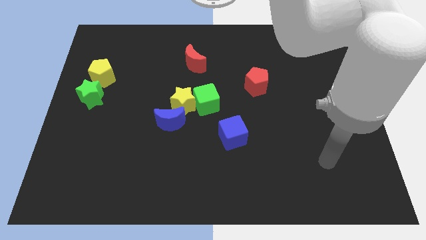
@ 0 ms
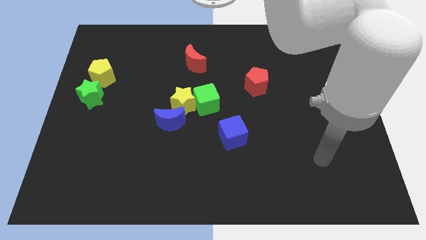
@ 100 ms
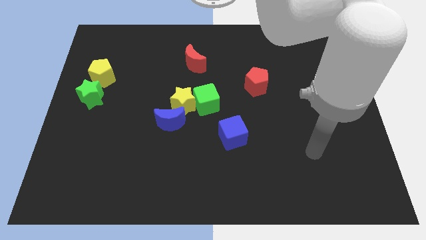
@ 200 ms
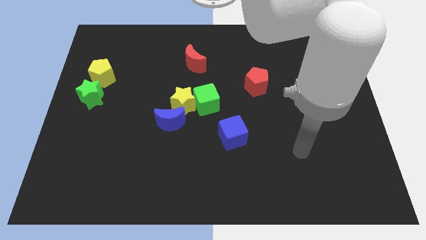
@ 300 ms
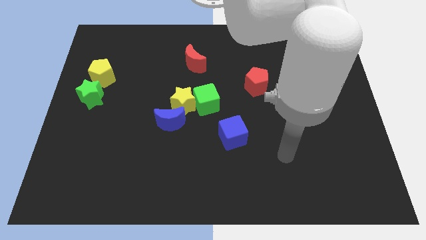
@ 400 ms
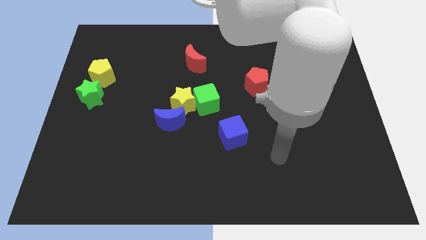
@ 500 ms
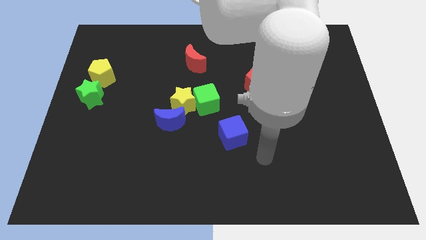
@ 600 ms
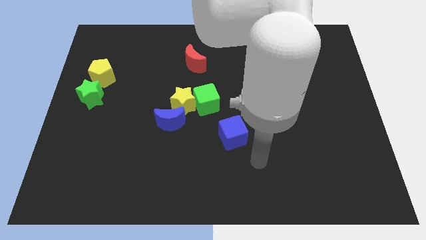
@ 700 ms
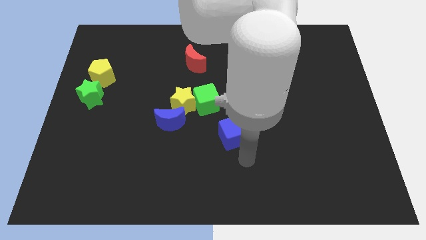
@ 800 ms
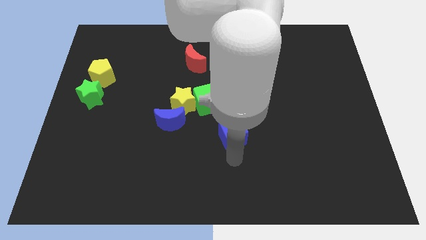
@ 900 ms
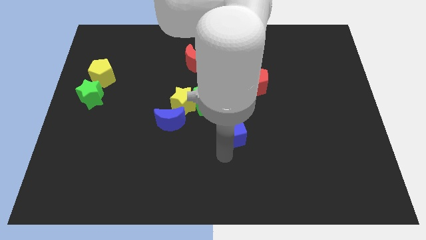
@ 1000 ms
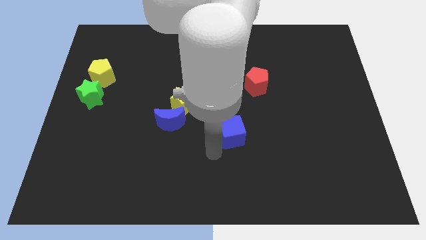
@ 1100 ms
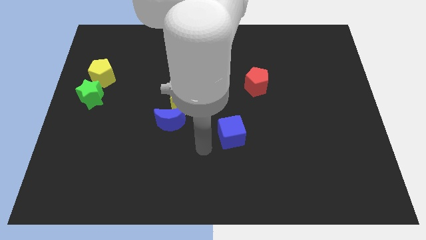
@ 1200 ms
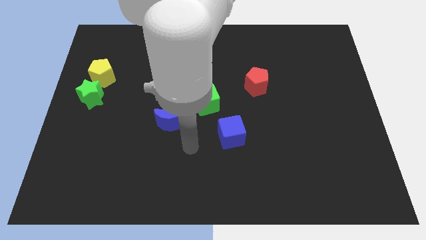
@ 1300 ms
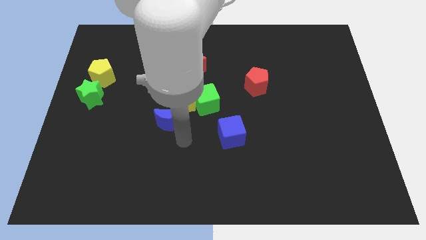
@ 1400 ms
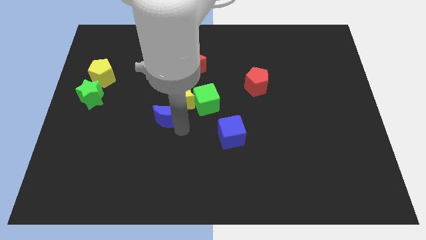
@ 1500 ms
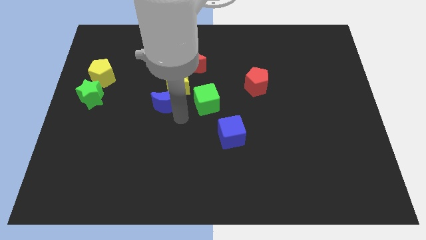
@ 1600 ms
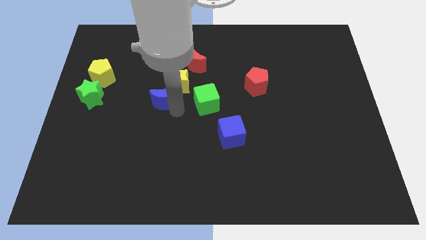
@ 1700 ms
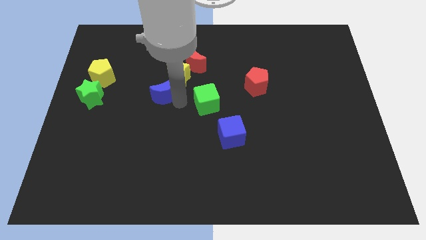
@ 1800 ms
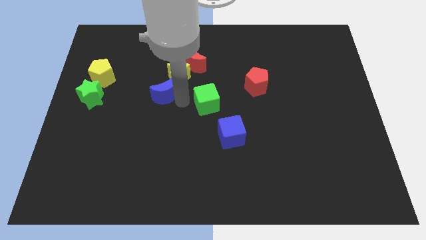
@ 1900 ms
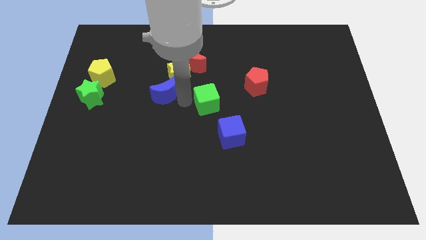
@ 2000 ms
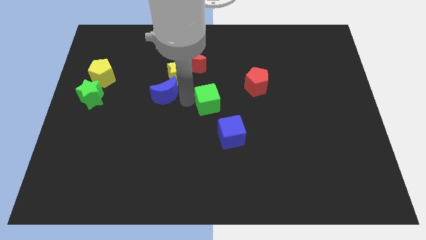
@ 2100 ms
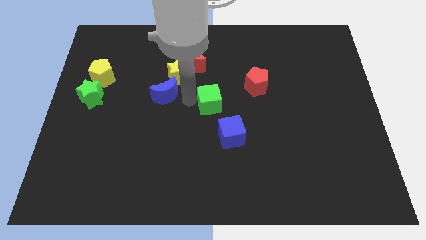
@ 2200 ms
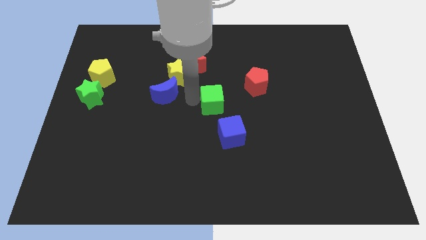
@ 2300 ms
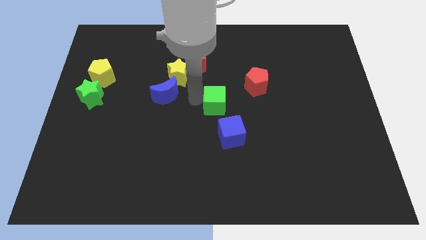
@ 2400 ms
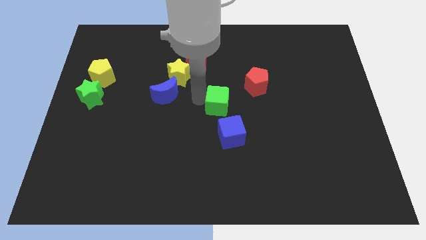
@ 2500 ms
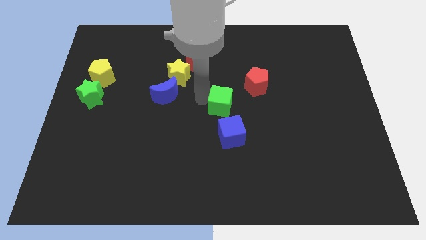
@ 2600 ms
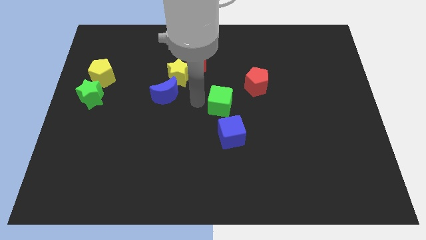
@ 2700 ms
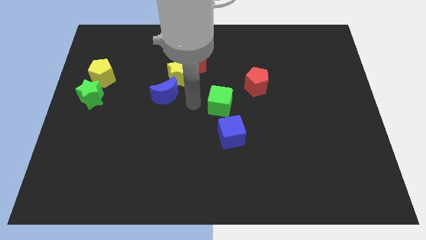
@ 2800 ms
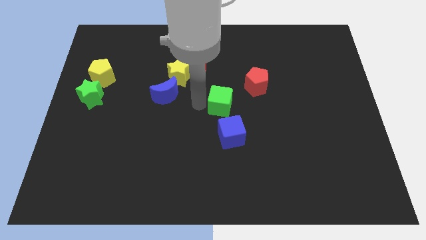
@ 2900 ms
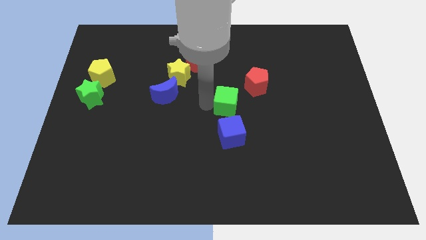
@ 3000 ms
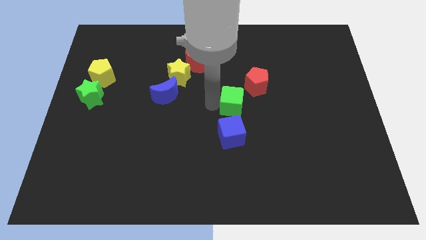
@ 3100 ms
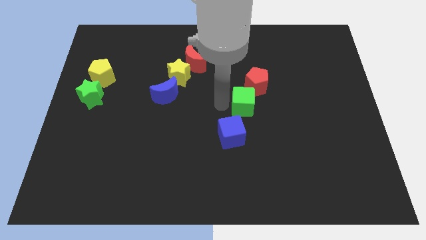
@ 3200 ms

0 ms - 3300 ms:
slide the green cube a bit to the right

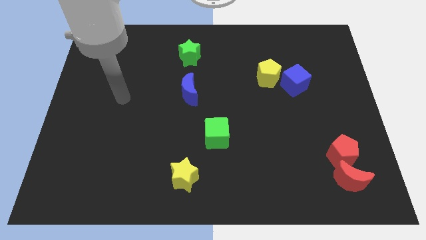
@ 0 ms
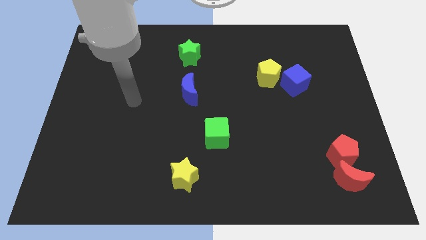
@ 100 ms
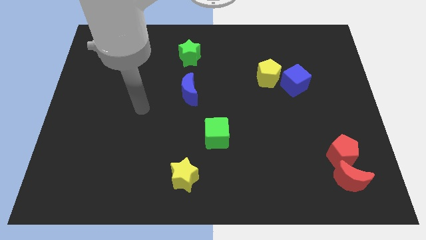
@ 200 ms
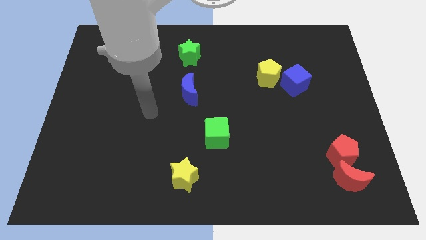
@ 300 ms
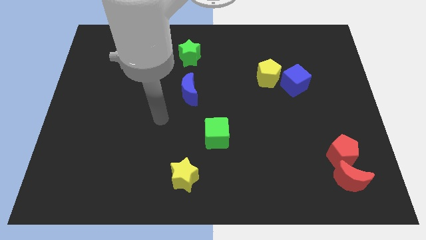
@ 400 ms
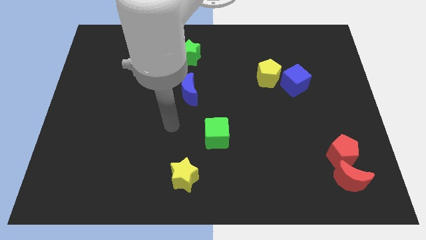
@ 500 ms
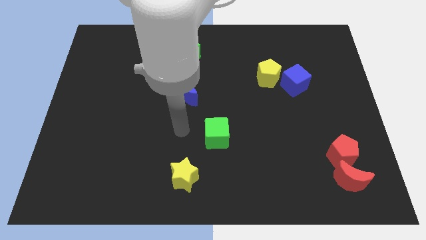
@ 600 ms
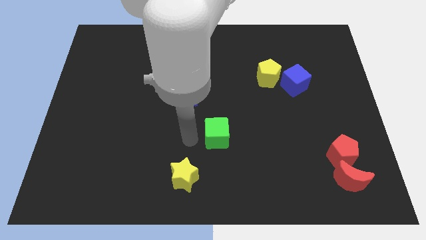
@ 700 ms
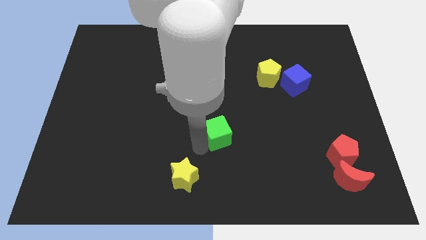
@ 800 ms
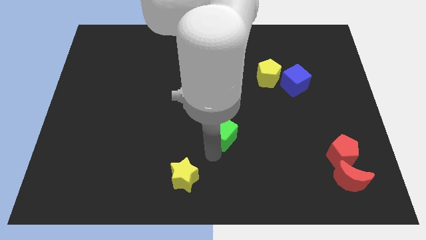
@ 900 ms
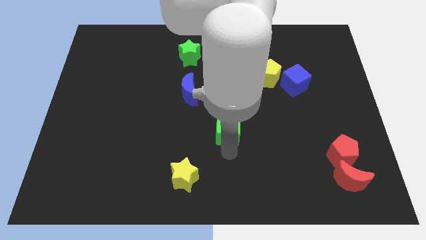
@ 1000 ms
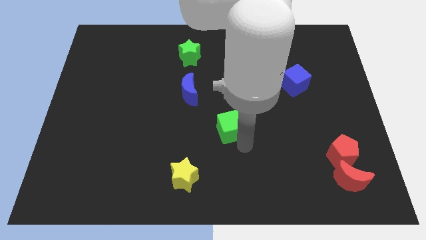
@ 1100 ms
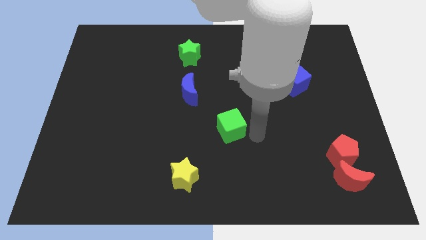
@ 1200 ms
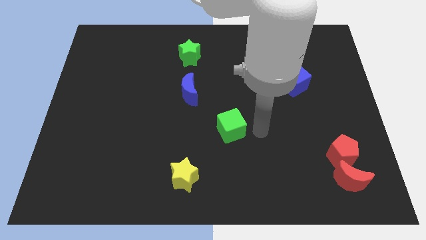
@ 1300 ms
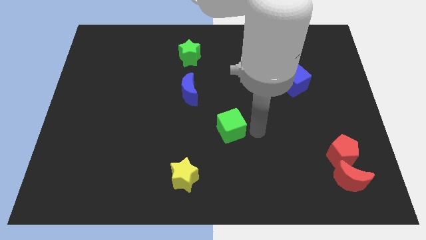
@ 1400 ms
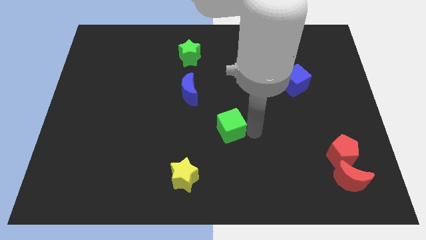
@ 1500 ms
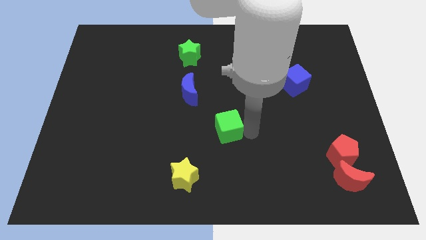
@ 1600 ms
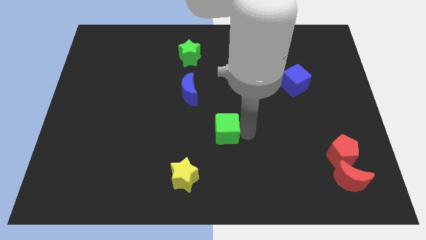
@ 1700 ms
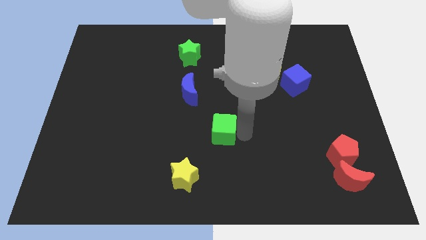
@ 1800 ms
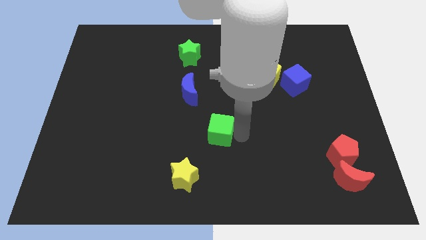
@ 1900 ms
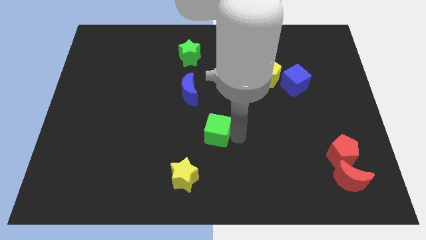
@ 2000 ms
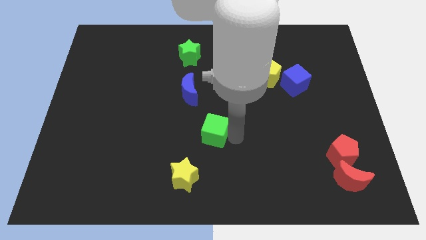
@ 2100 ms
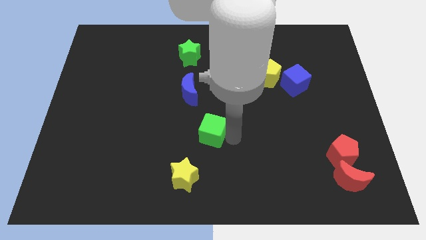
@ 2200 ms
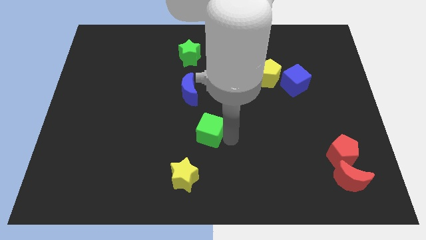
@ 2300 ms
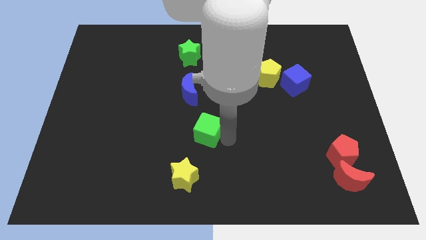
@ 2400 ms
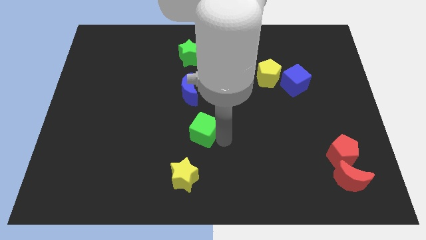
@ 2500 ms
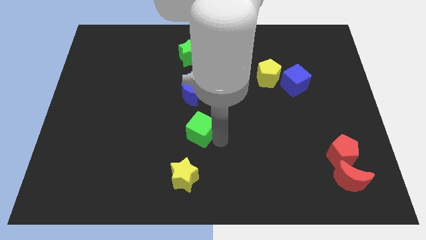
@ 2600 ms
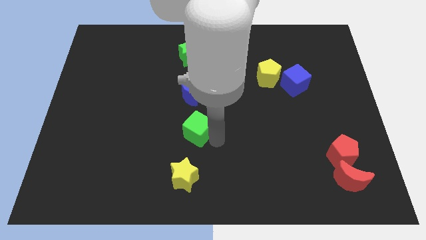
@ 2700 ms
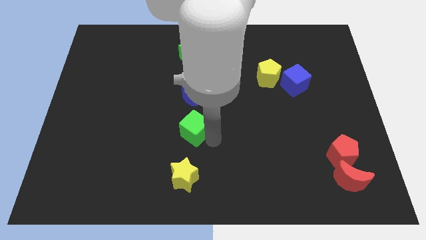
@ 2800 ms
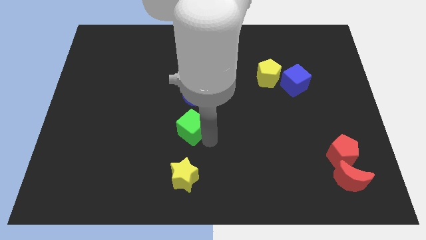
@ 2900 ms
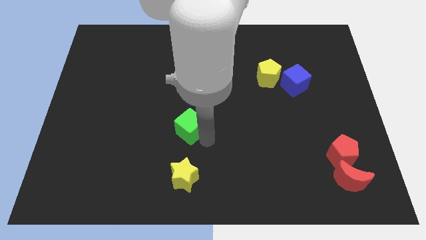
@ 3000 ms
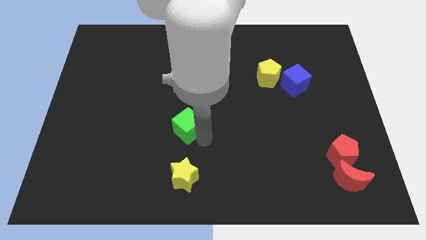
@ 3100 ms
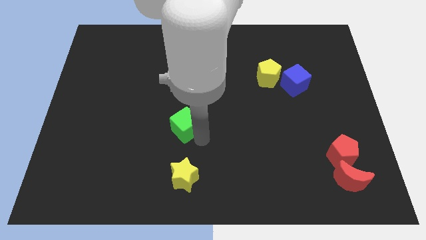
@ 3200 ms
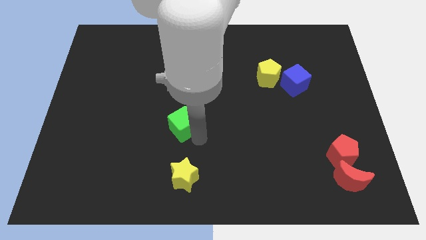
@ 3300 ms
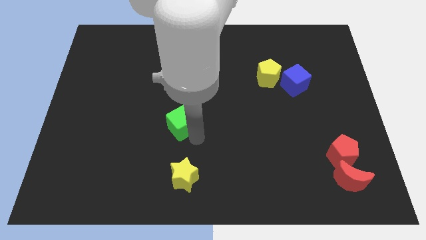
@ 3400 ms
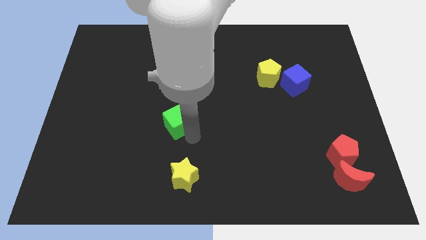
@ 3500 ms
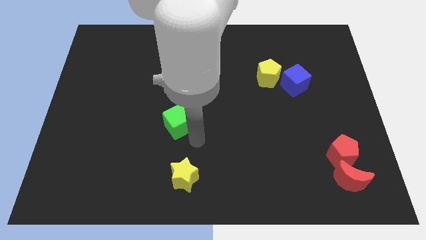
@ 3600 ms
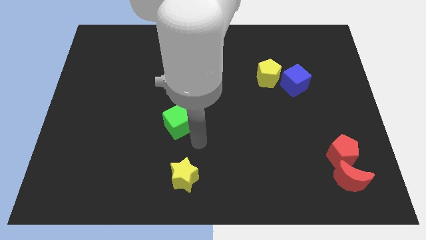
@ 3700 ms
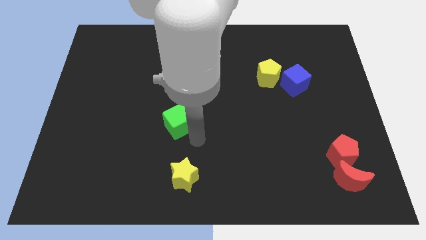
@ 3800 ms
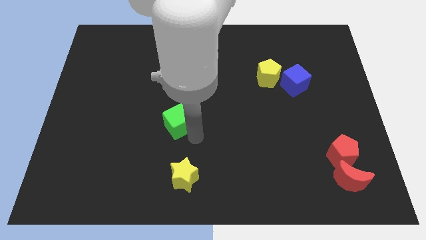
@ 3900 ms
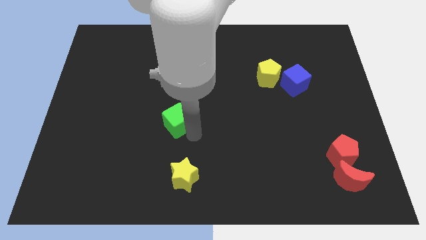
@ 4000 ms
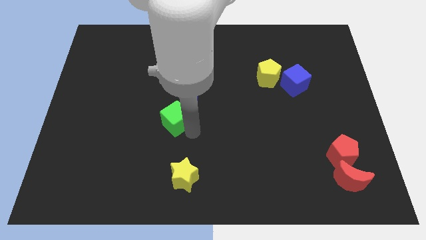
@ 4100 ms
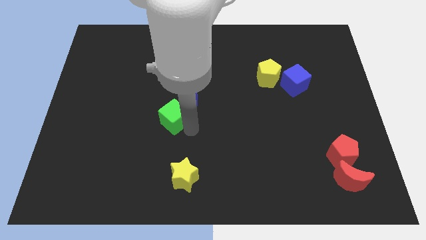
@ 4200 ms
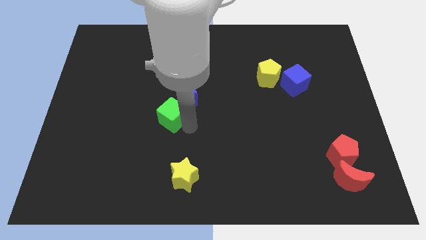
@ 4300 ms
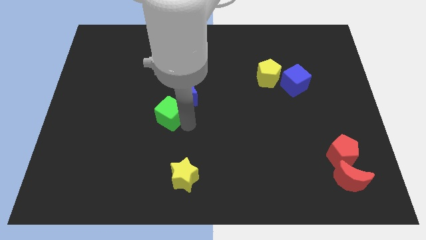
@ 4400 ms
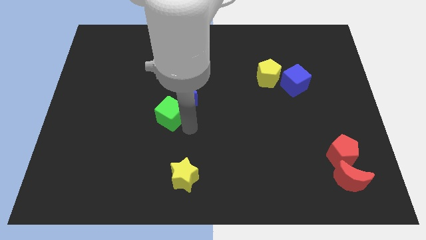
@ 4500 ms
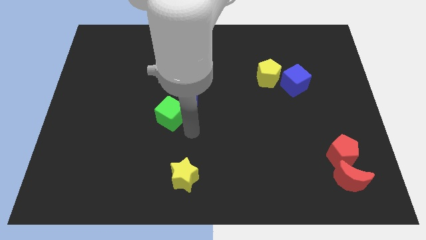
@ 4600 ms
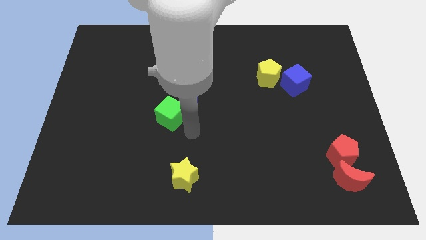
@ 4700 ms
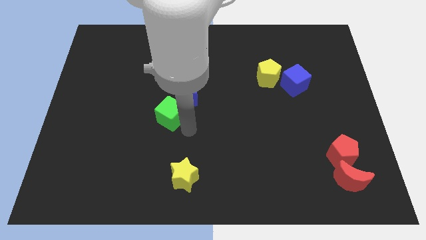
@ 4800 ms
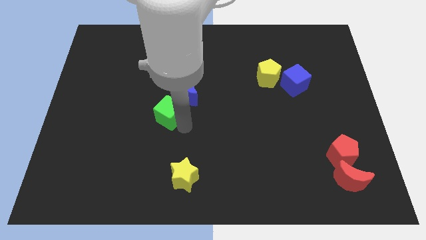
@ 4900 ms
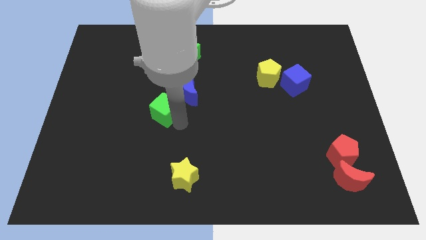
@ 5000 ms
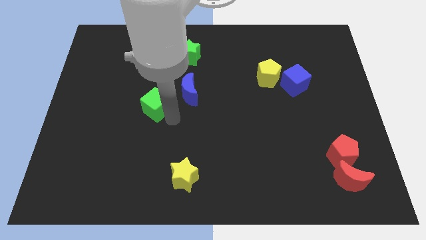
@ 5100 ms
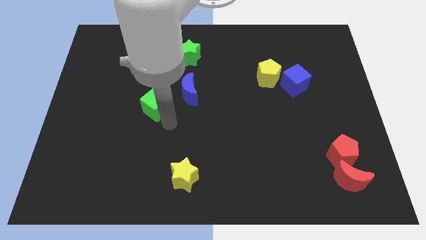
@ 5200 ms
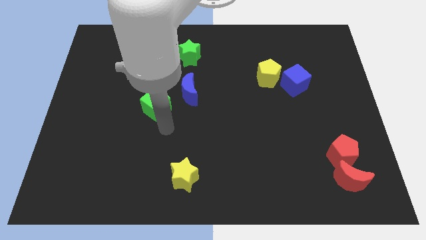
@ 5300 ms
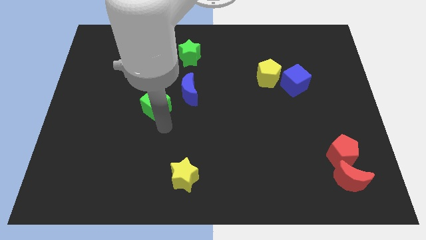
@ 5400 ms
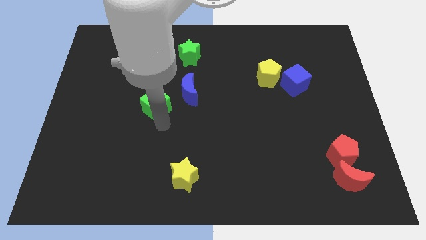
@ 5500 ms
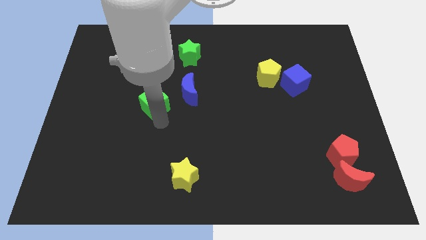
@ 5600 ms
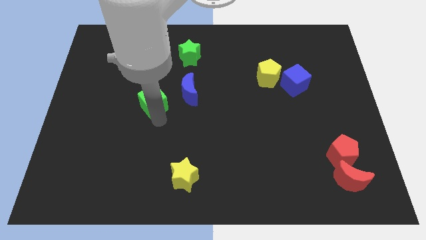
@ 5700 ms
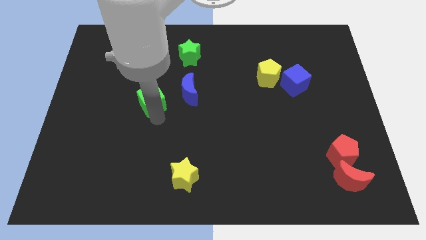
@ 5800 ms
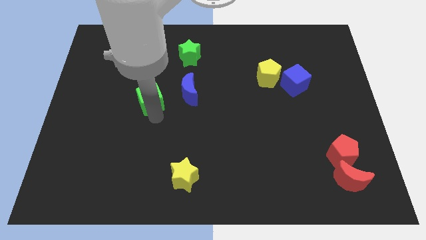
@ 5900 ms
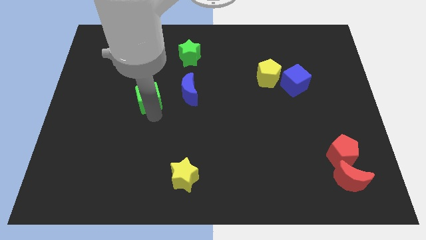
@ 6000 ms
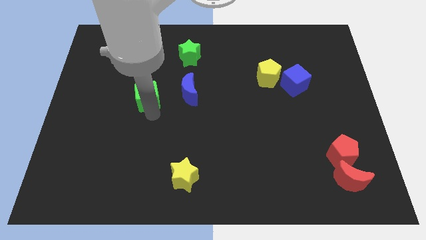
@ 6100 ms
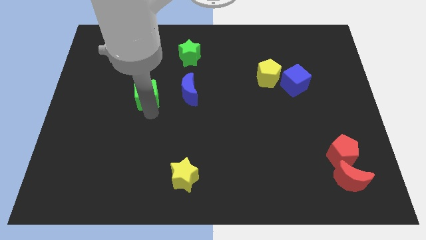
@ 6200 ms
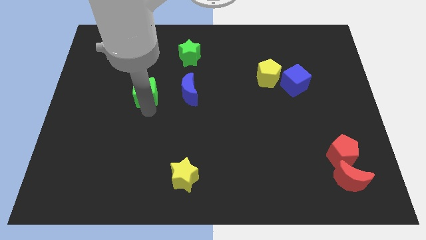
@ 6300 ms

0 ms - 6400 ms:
move the green cube upwards and then left
